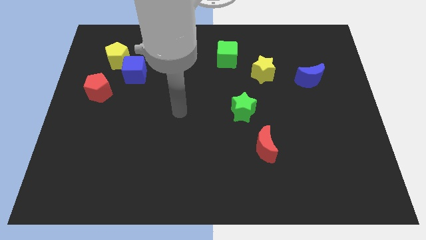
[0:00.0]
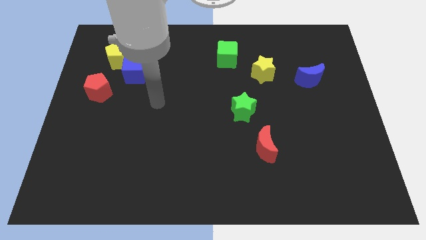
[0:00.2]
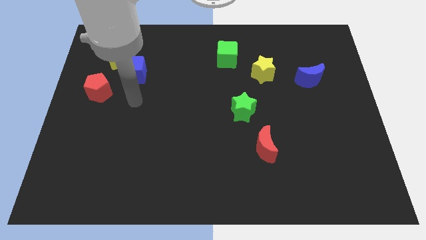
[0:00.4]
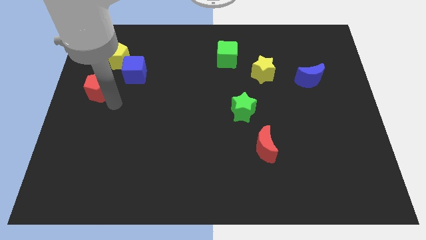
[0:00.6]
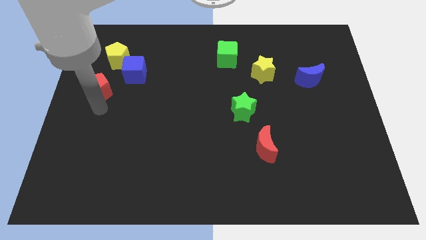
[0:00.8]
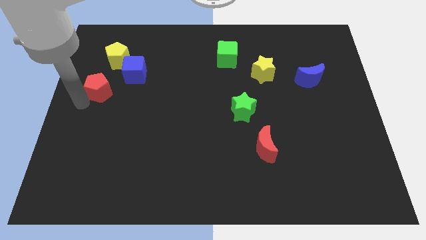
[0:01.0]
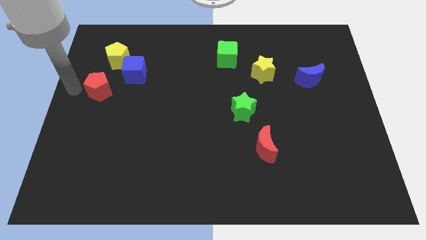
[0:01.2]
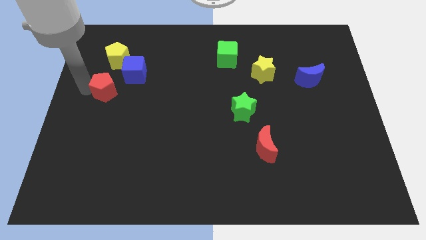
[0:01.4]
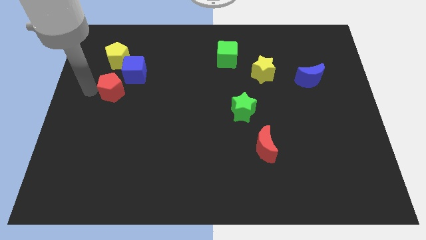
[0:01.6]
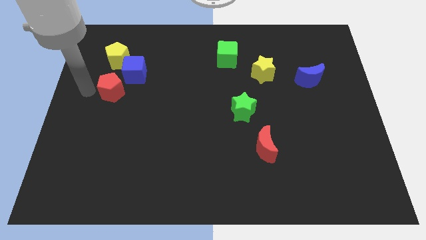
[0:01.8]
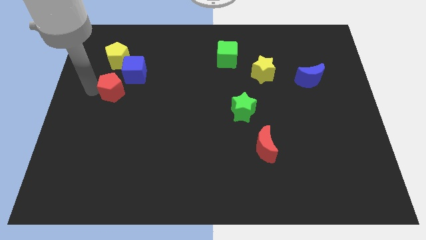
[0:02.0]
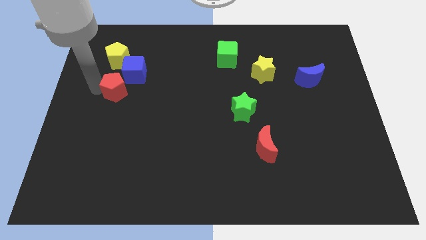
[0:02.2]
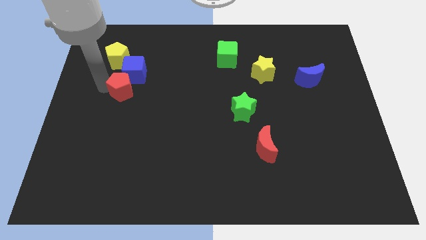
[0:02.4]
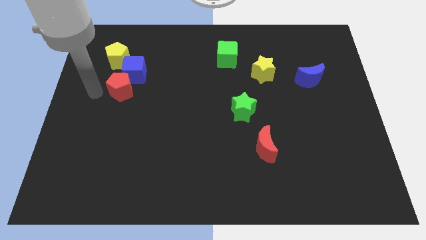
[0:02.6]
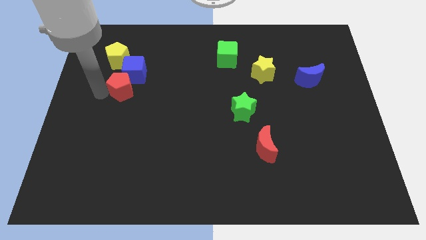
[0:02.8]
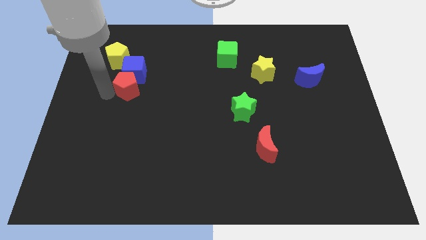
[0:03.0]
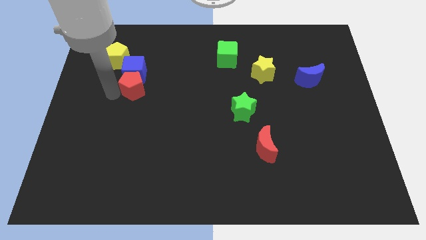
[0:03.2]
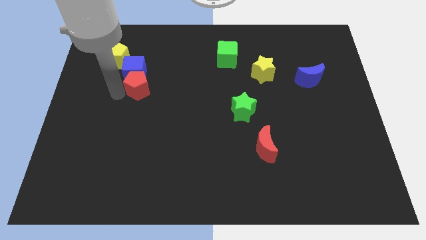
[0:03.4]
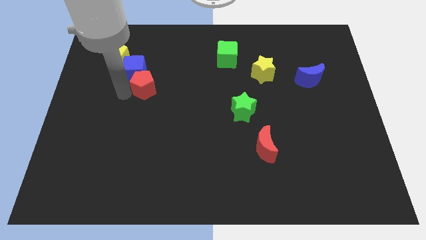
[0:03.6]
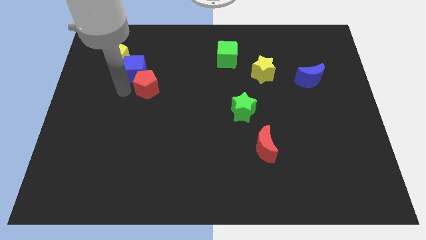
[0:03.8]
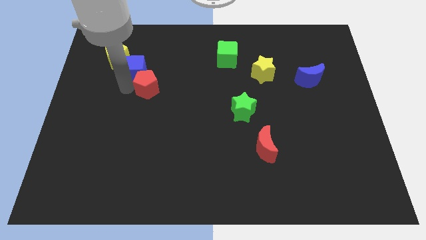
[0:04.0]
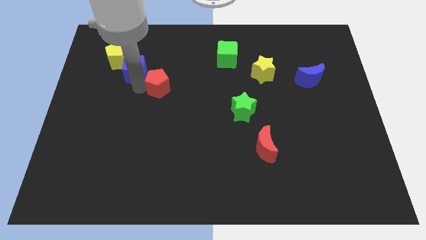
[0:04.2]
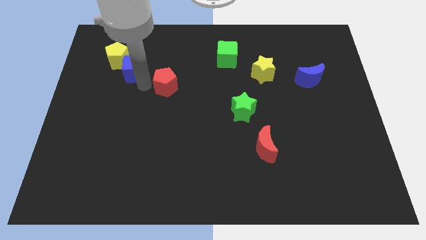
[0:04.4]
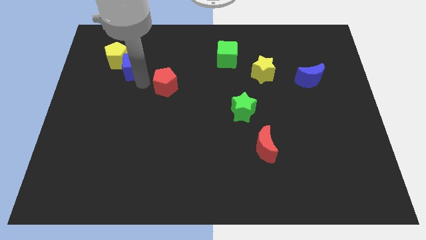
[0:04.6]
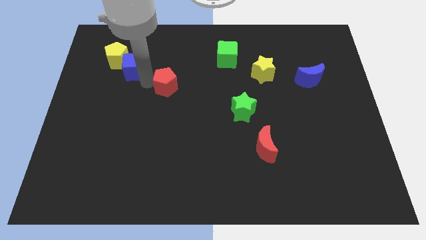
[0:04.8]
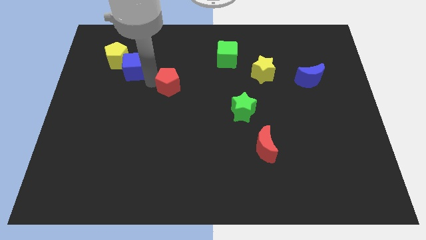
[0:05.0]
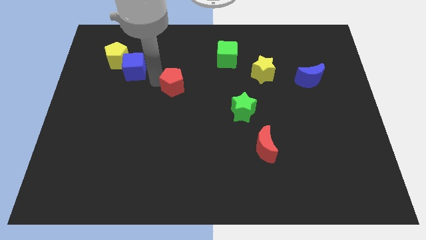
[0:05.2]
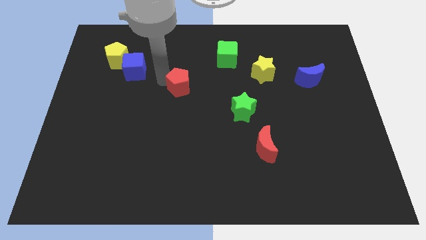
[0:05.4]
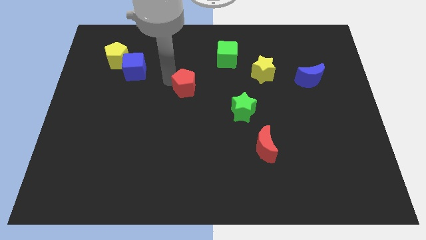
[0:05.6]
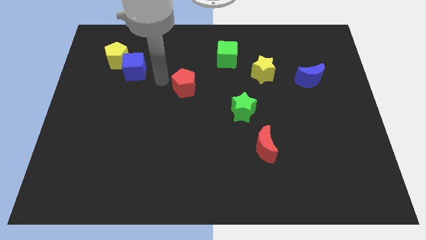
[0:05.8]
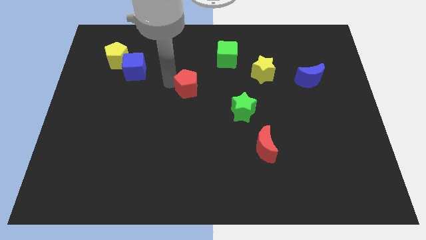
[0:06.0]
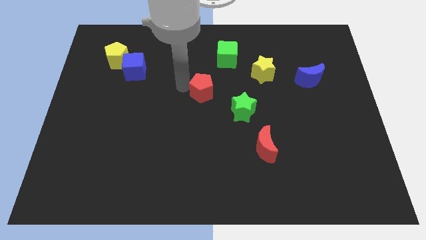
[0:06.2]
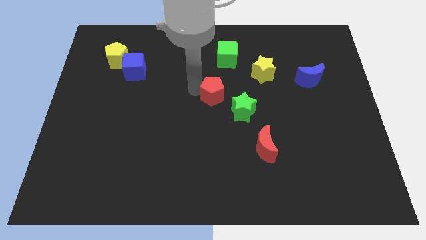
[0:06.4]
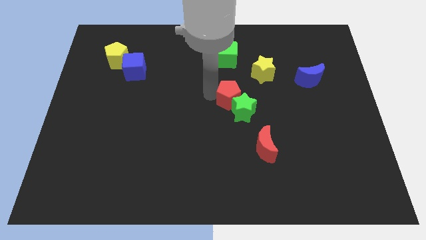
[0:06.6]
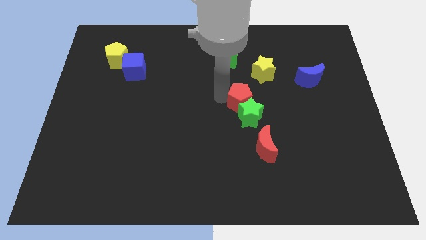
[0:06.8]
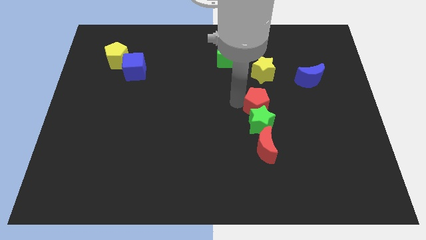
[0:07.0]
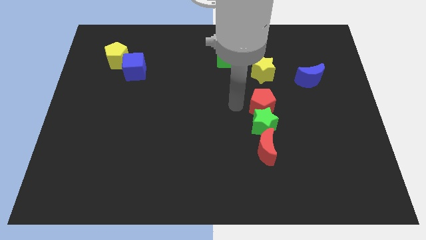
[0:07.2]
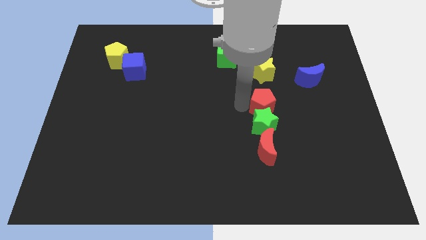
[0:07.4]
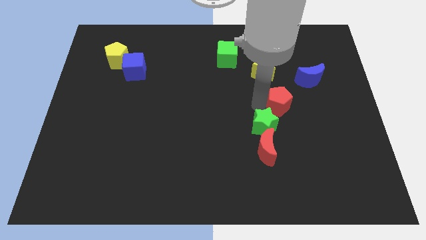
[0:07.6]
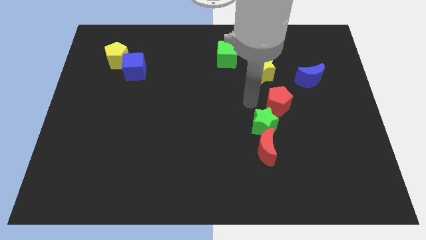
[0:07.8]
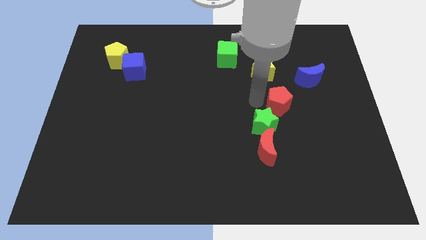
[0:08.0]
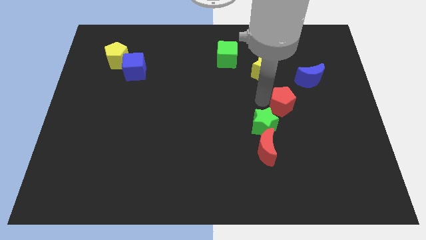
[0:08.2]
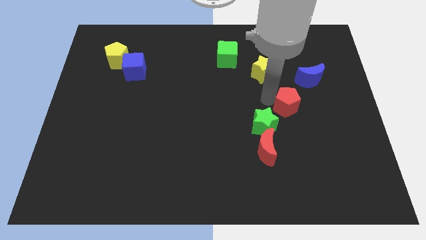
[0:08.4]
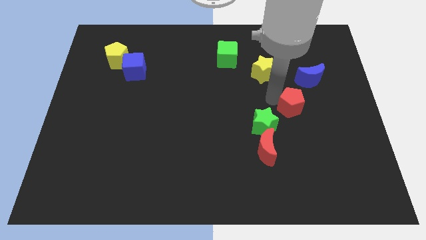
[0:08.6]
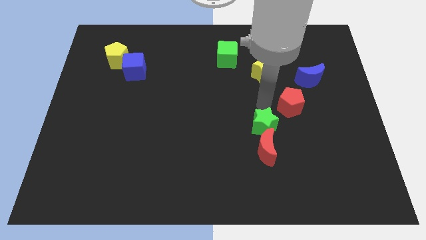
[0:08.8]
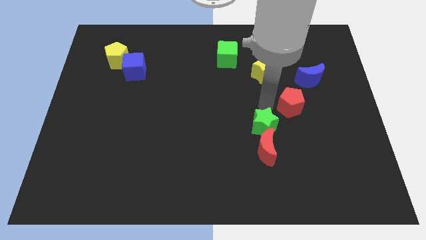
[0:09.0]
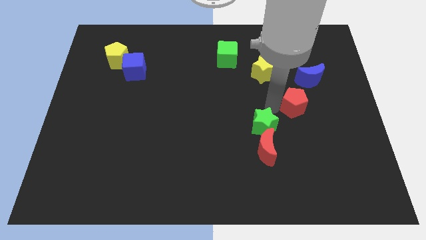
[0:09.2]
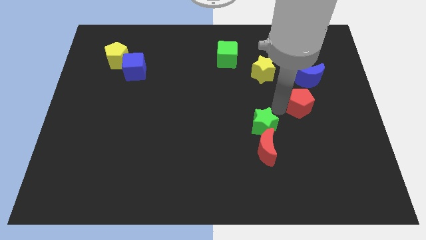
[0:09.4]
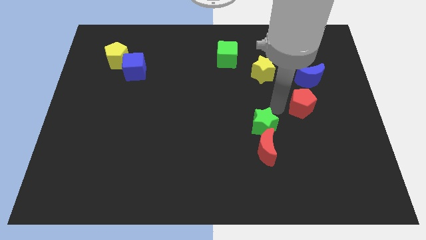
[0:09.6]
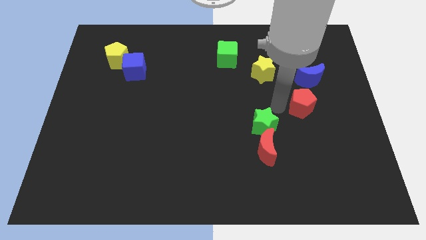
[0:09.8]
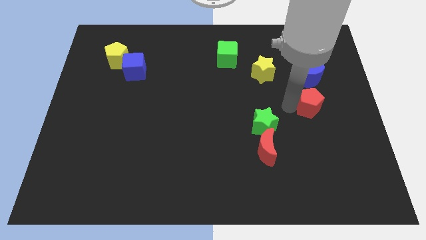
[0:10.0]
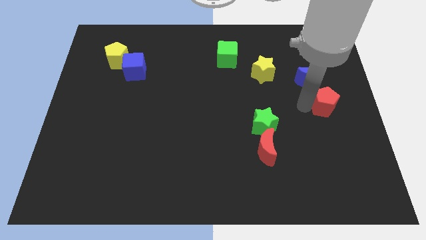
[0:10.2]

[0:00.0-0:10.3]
put the red pentagon to the center right

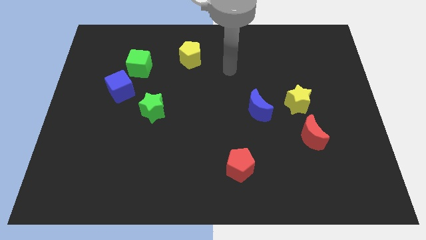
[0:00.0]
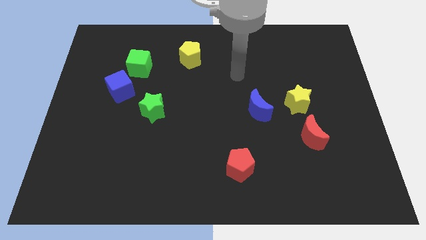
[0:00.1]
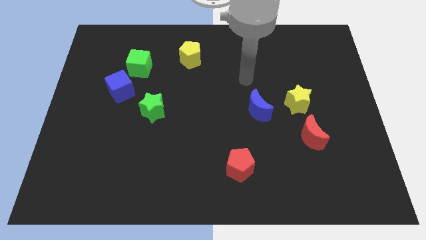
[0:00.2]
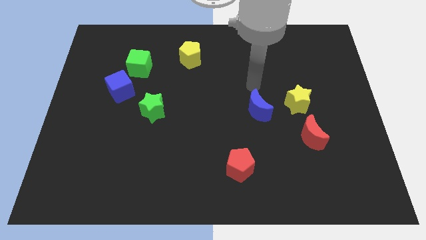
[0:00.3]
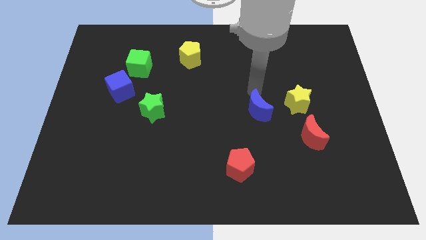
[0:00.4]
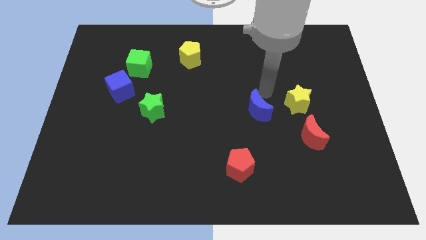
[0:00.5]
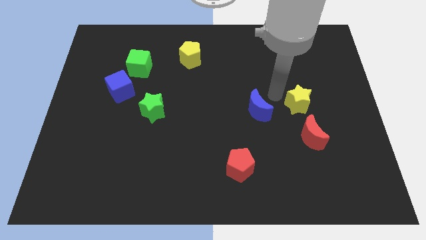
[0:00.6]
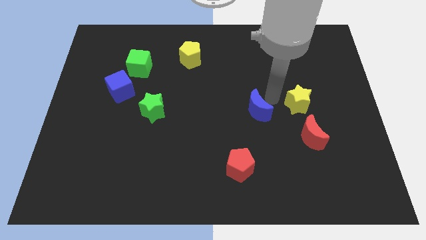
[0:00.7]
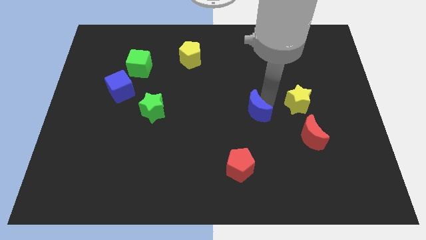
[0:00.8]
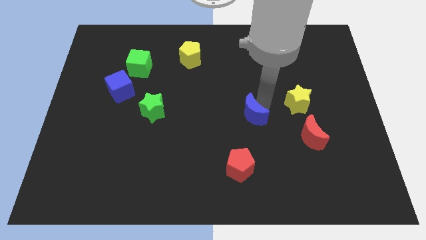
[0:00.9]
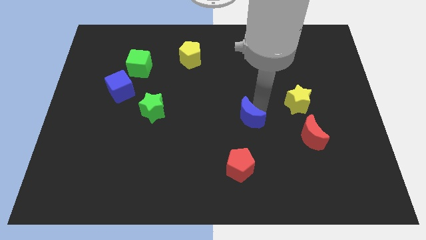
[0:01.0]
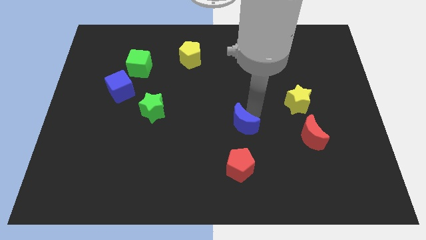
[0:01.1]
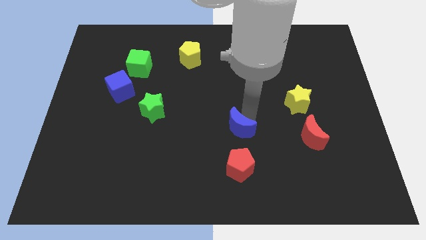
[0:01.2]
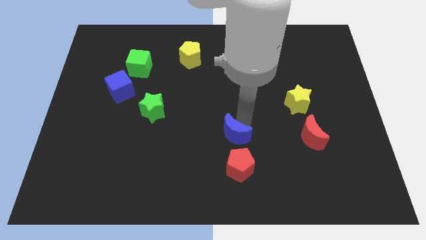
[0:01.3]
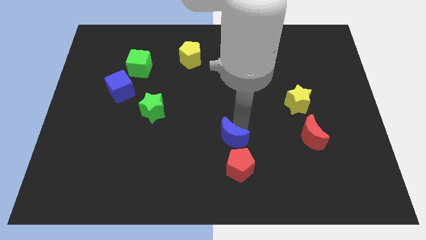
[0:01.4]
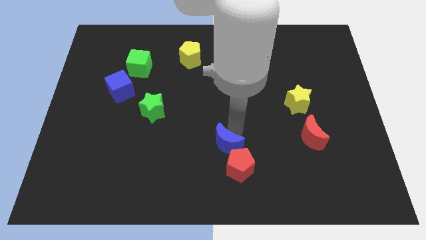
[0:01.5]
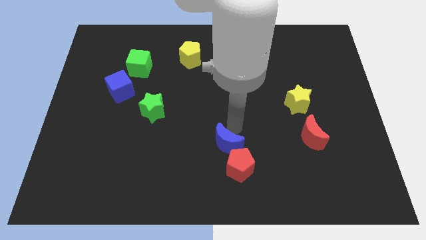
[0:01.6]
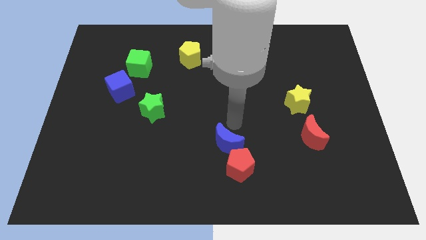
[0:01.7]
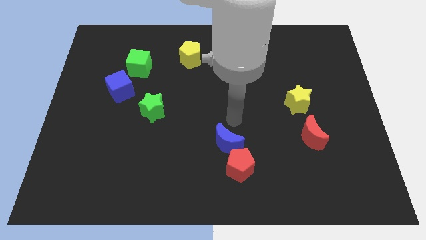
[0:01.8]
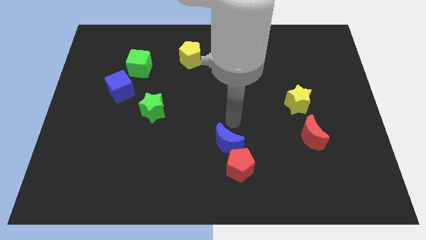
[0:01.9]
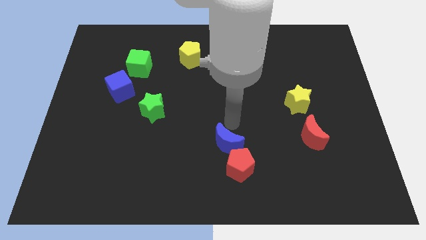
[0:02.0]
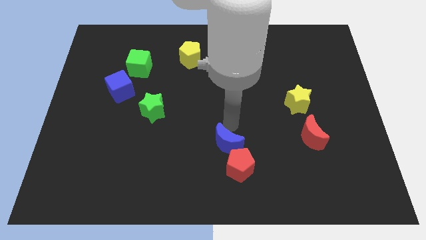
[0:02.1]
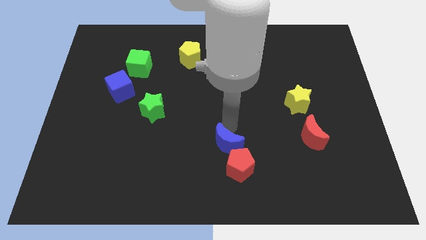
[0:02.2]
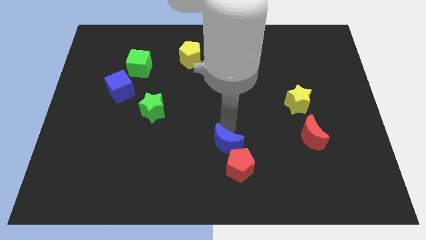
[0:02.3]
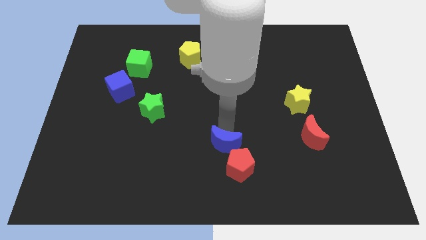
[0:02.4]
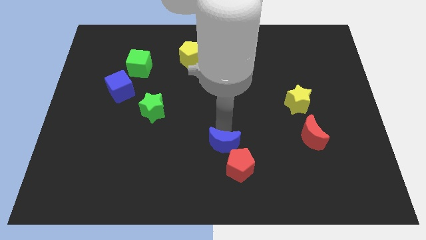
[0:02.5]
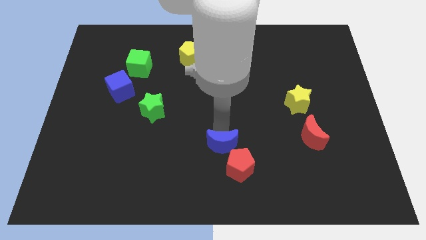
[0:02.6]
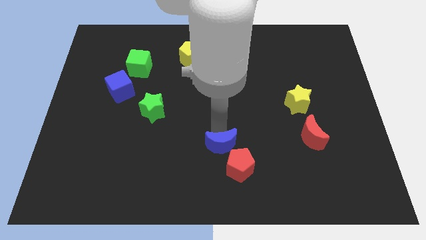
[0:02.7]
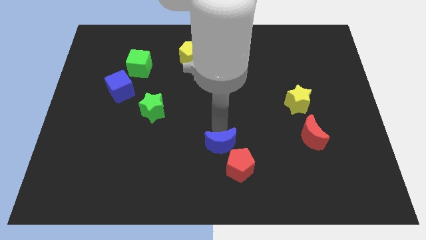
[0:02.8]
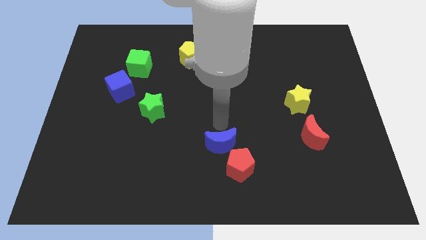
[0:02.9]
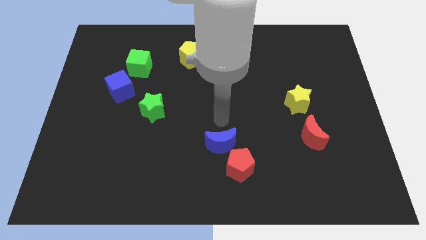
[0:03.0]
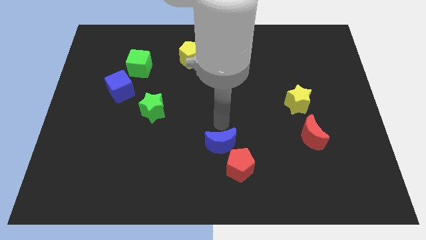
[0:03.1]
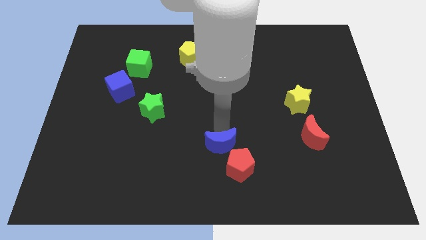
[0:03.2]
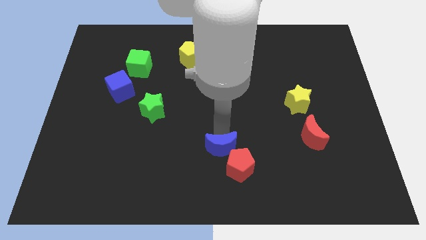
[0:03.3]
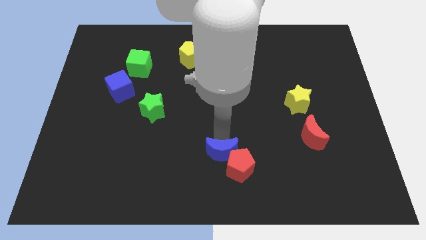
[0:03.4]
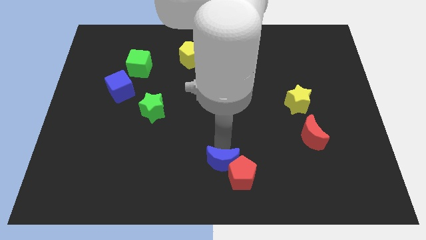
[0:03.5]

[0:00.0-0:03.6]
slide the blue moon to the bottom side
